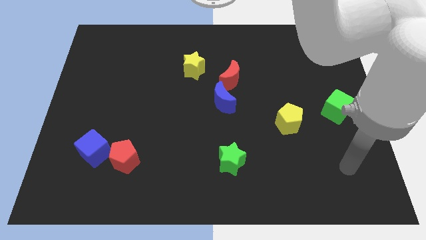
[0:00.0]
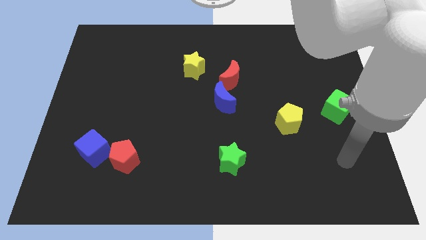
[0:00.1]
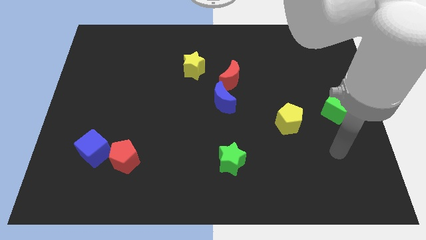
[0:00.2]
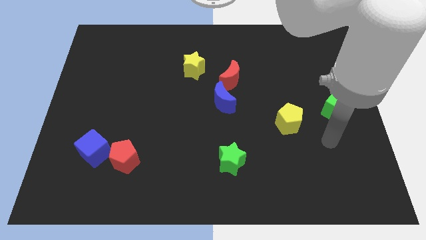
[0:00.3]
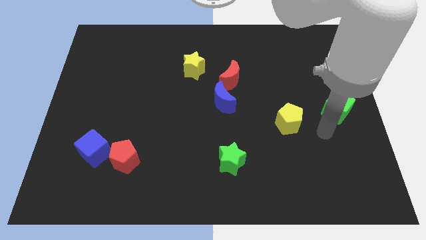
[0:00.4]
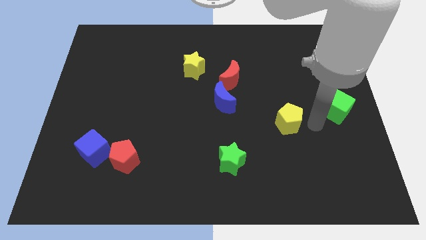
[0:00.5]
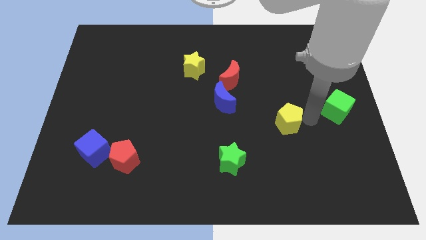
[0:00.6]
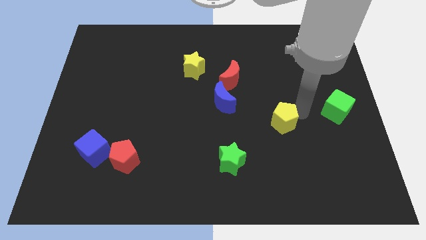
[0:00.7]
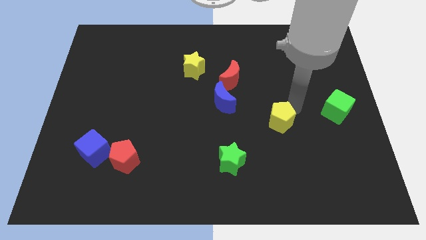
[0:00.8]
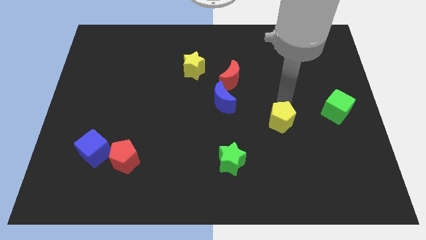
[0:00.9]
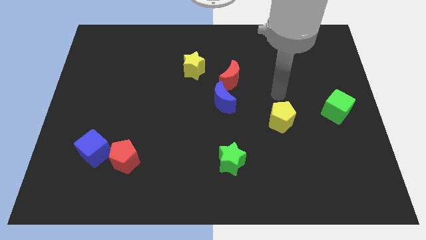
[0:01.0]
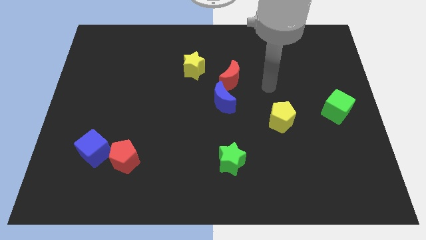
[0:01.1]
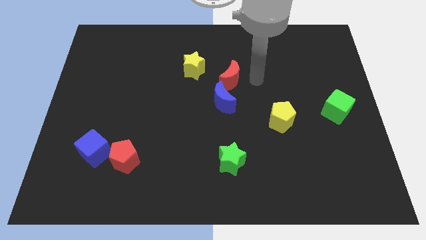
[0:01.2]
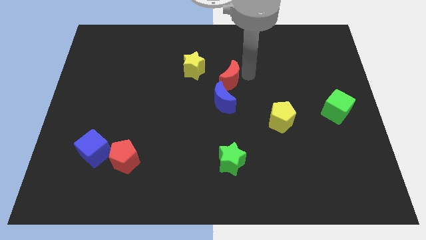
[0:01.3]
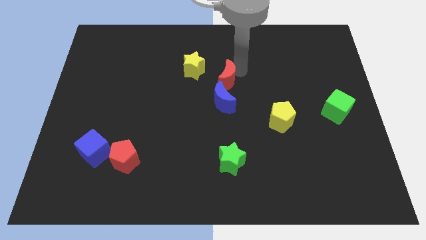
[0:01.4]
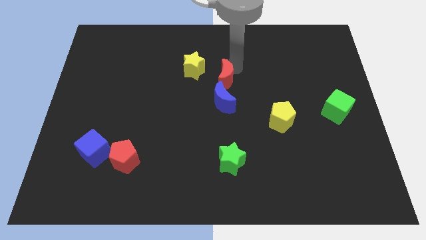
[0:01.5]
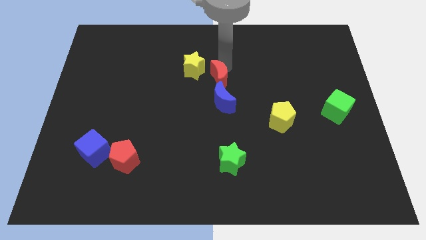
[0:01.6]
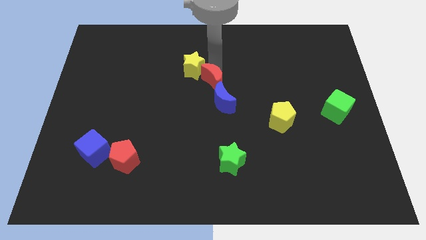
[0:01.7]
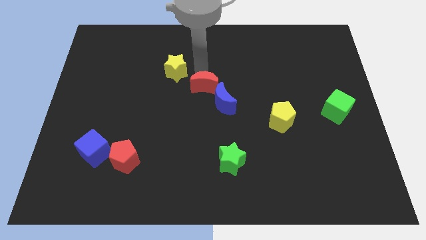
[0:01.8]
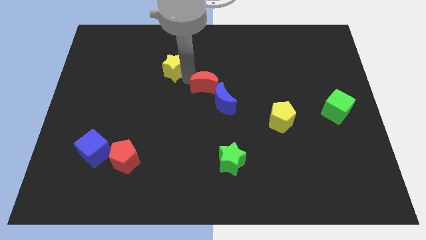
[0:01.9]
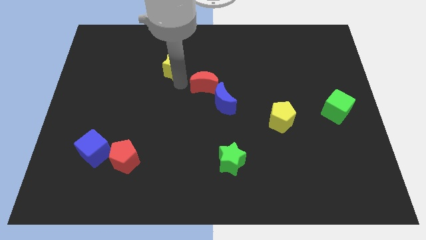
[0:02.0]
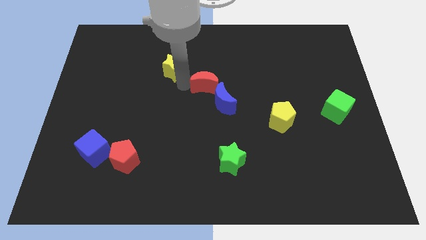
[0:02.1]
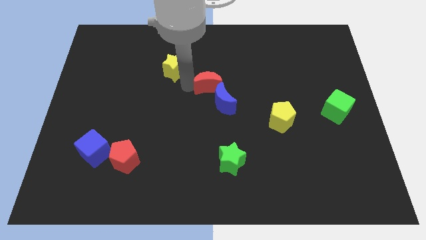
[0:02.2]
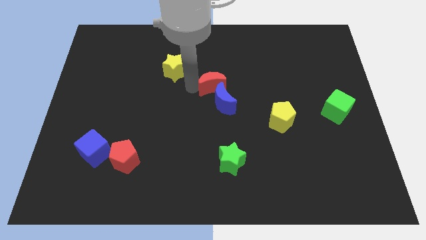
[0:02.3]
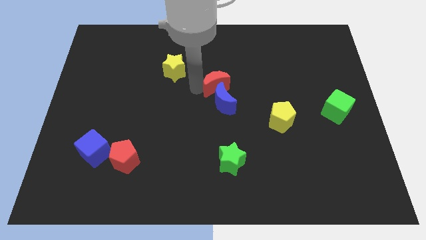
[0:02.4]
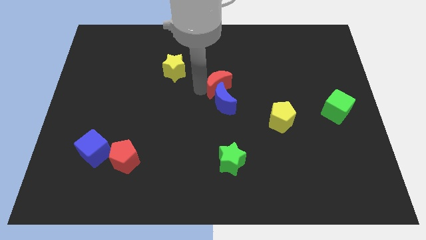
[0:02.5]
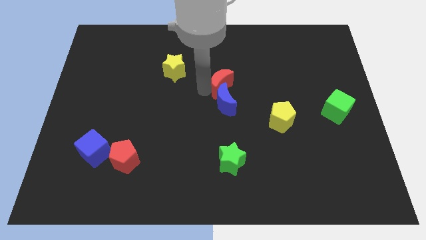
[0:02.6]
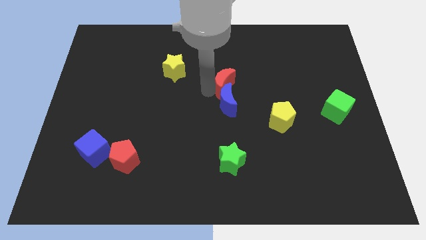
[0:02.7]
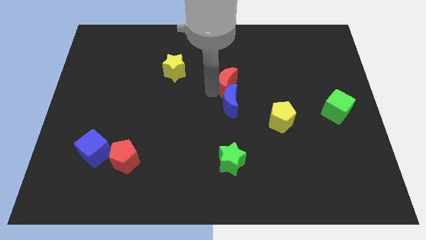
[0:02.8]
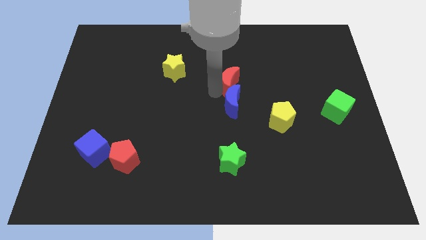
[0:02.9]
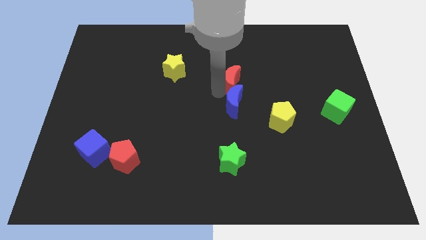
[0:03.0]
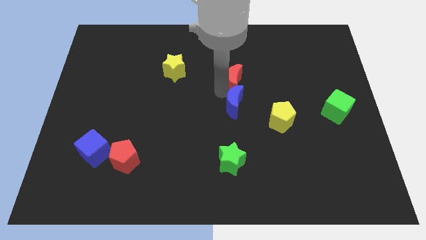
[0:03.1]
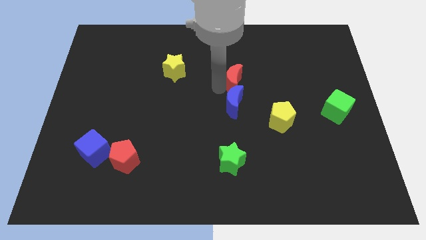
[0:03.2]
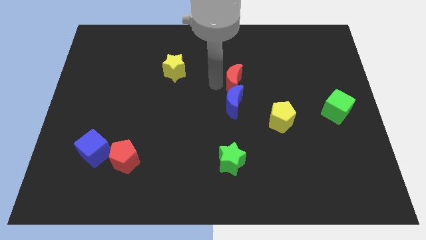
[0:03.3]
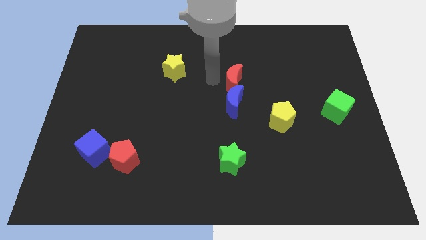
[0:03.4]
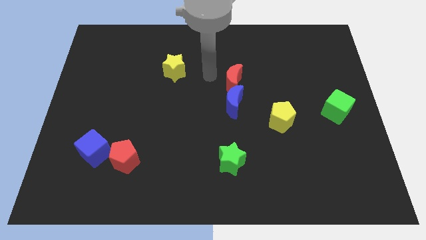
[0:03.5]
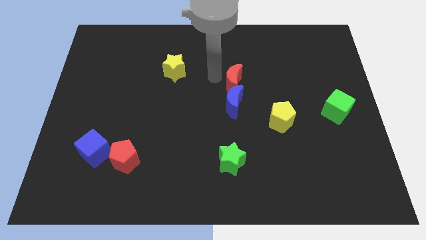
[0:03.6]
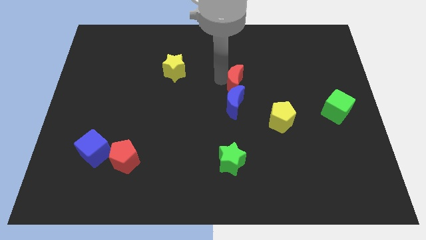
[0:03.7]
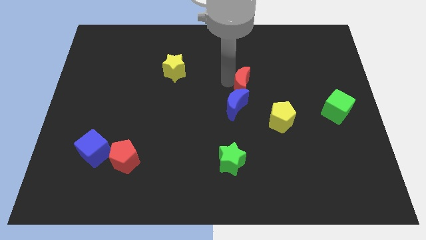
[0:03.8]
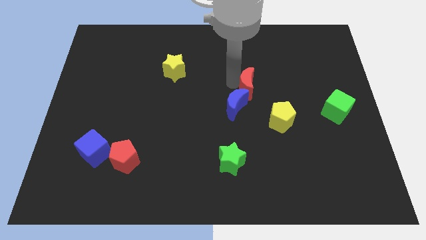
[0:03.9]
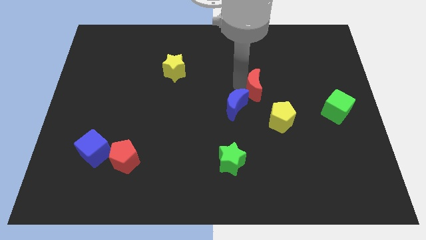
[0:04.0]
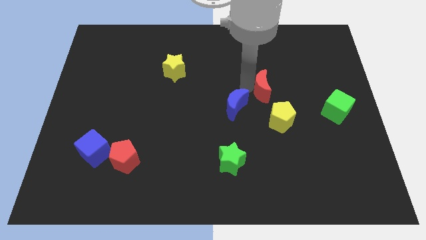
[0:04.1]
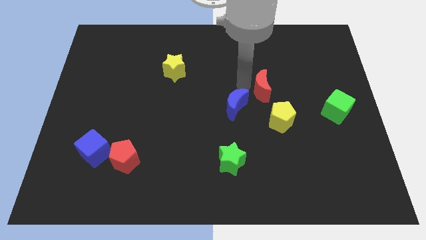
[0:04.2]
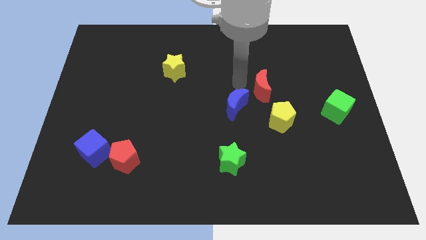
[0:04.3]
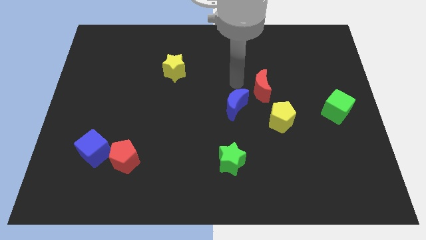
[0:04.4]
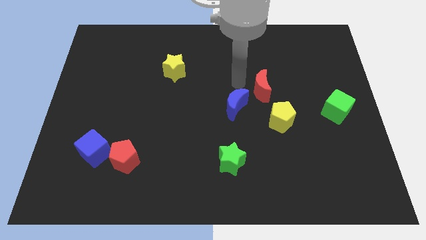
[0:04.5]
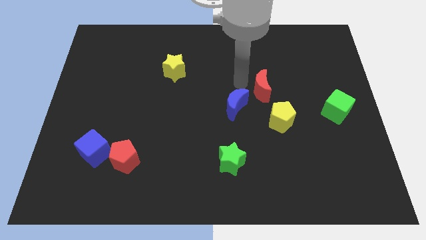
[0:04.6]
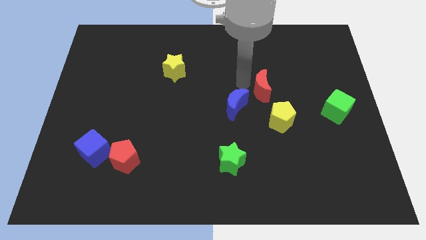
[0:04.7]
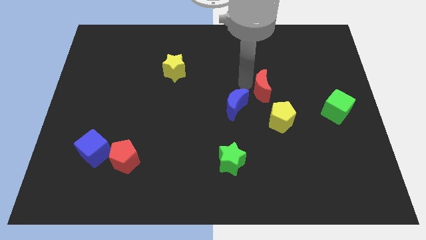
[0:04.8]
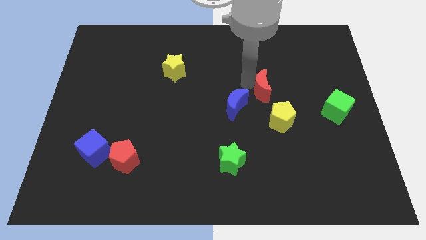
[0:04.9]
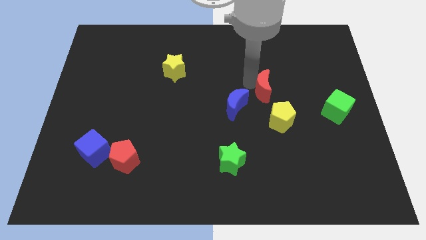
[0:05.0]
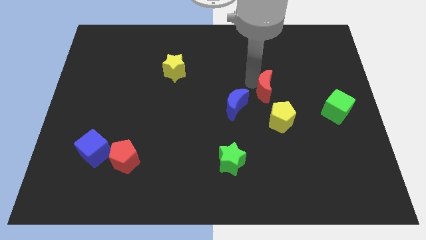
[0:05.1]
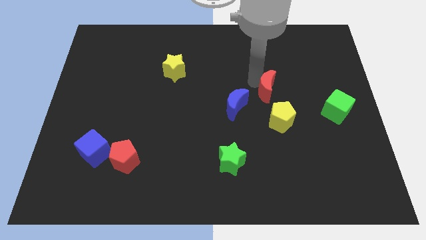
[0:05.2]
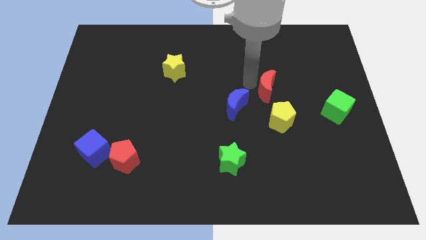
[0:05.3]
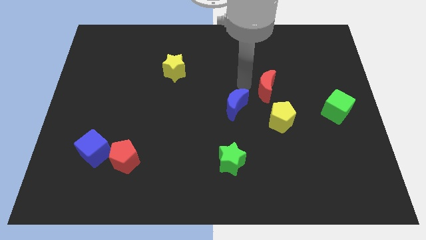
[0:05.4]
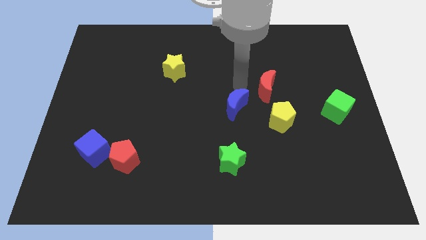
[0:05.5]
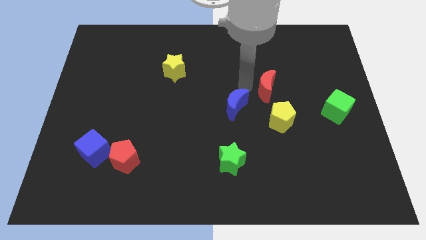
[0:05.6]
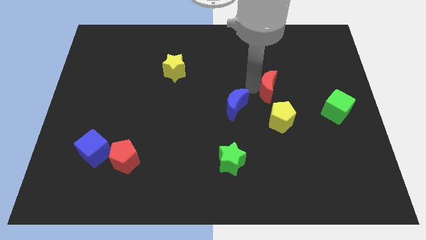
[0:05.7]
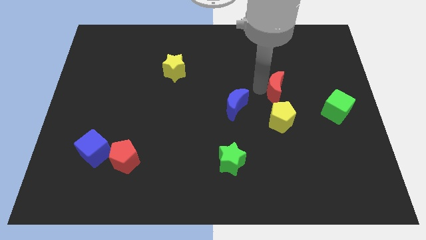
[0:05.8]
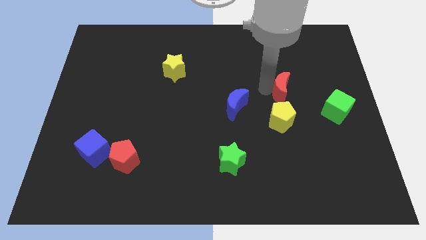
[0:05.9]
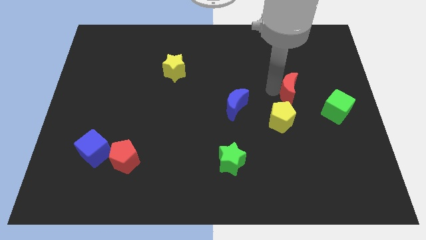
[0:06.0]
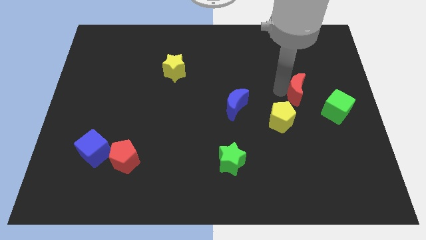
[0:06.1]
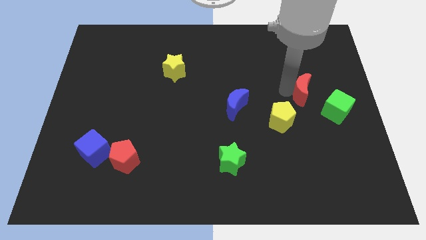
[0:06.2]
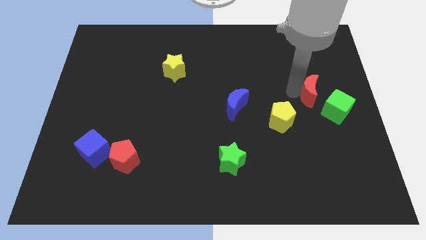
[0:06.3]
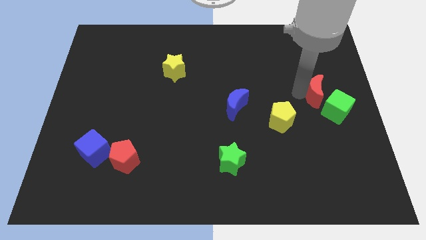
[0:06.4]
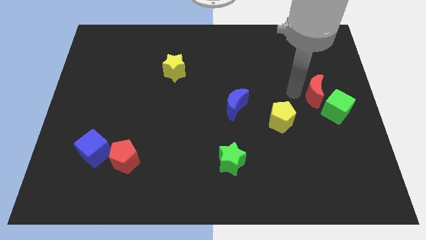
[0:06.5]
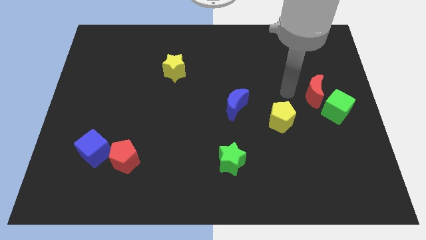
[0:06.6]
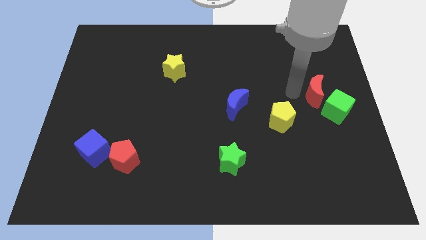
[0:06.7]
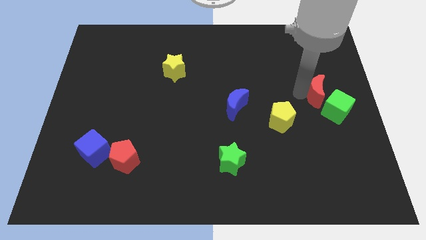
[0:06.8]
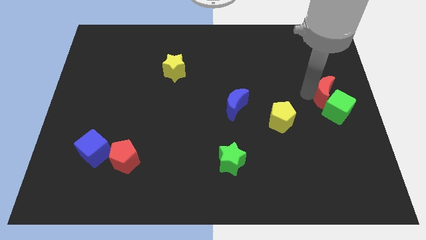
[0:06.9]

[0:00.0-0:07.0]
move the red moon to the right side
